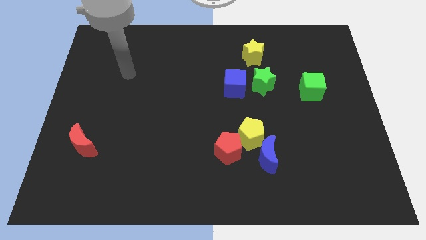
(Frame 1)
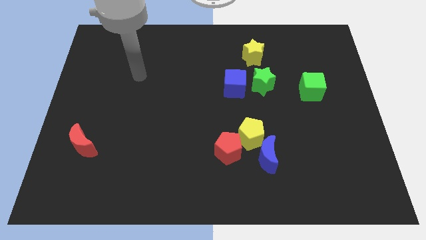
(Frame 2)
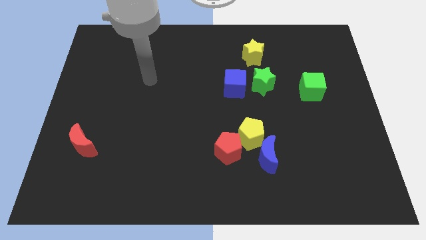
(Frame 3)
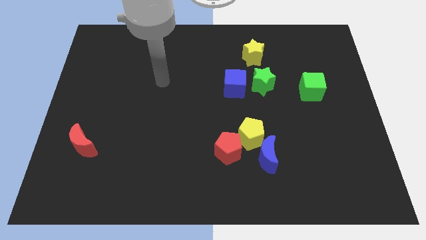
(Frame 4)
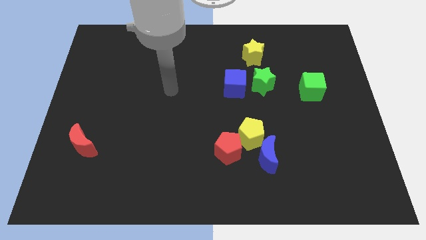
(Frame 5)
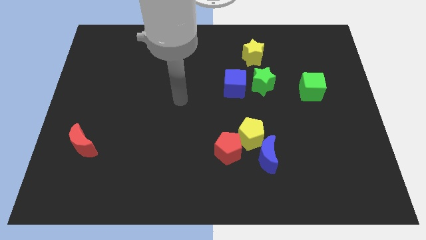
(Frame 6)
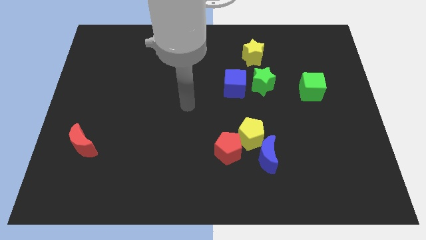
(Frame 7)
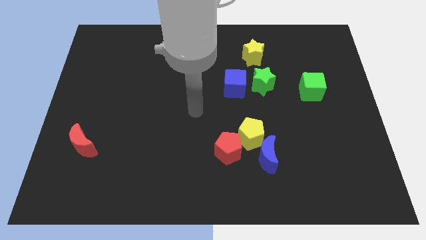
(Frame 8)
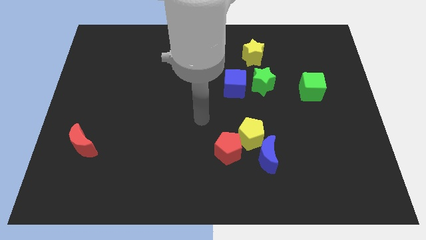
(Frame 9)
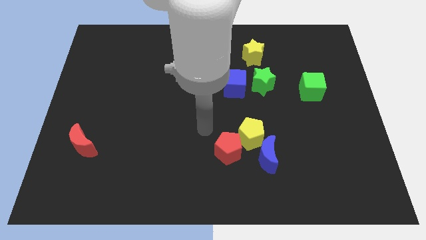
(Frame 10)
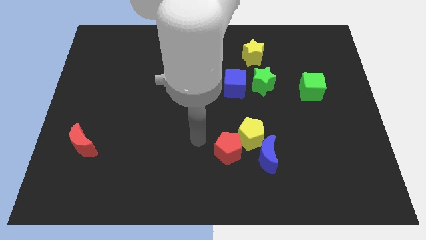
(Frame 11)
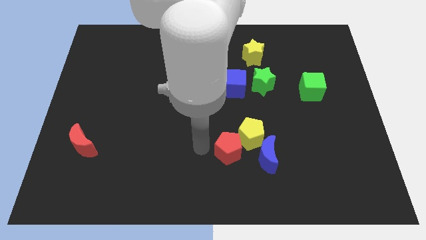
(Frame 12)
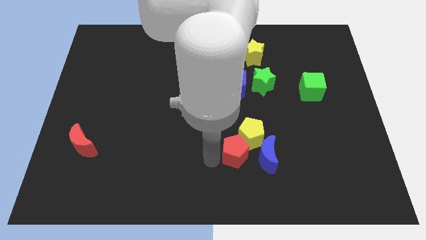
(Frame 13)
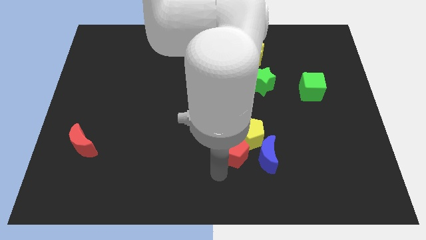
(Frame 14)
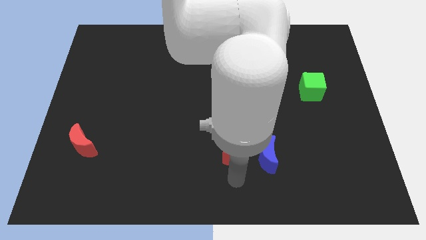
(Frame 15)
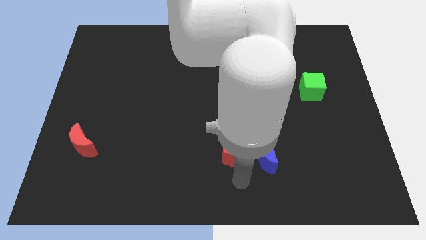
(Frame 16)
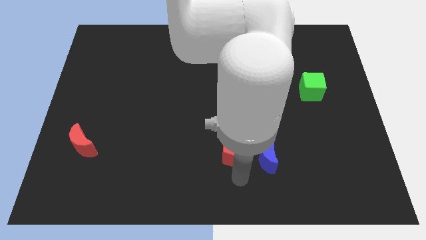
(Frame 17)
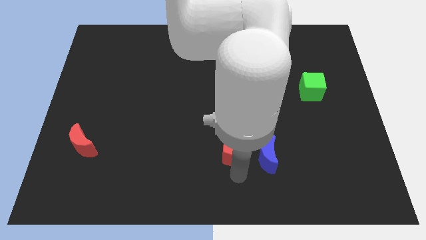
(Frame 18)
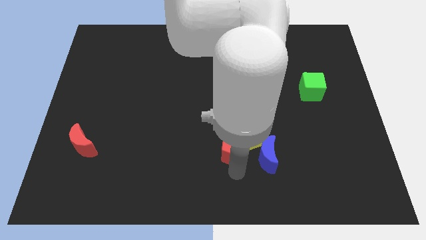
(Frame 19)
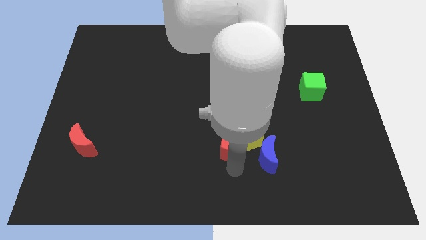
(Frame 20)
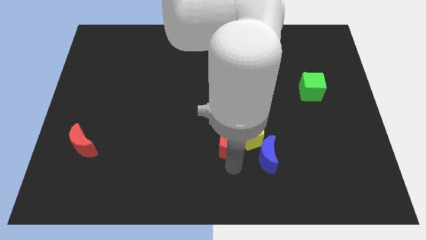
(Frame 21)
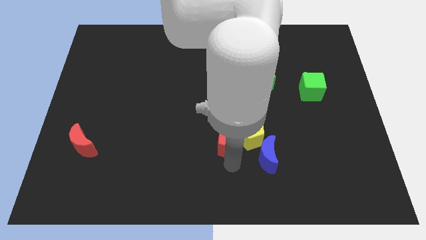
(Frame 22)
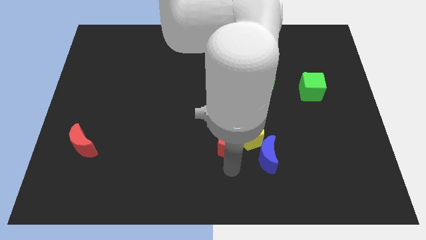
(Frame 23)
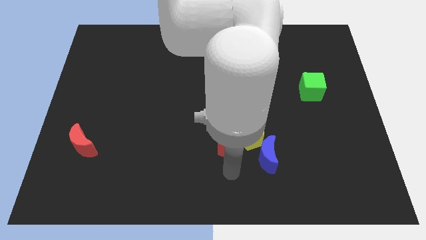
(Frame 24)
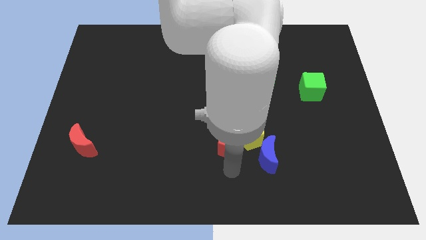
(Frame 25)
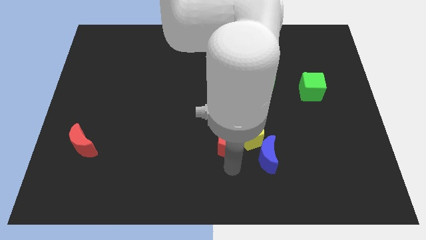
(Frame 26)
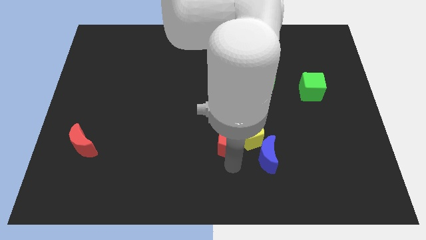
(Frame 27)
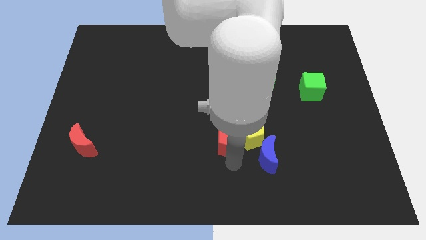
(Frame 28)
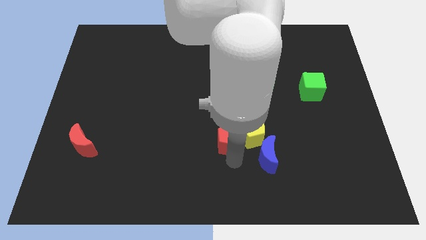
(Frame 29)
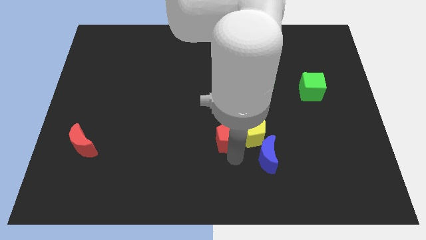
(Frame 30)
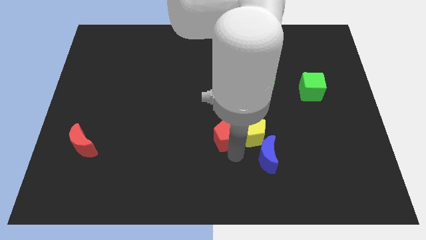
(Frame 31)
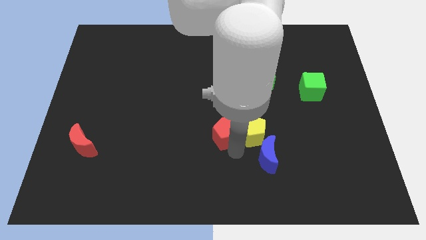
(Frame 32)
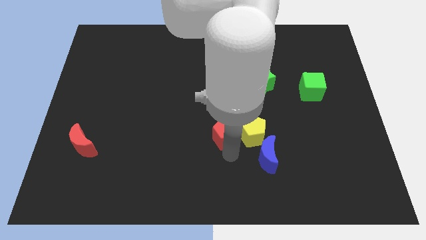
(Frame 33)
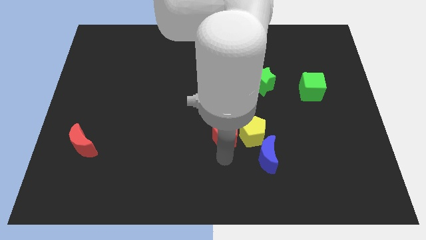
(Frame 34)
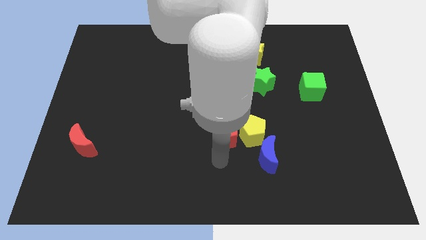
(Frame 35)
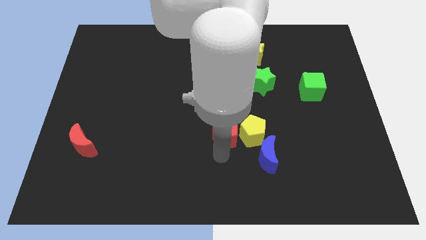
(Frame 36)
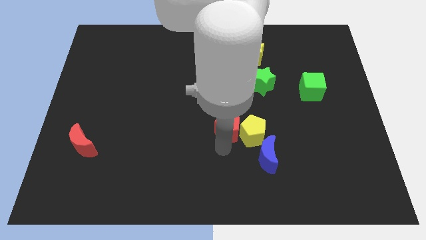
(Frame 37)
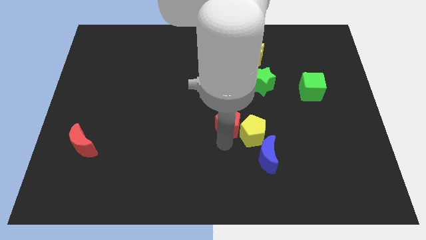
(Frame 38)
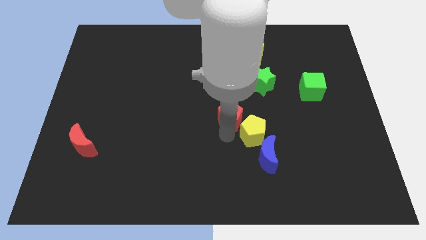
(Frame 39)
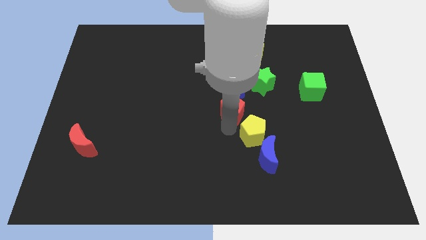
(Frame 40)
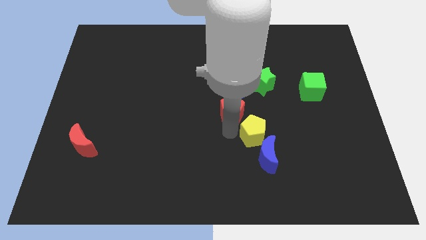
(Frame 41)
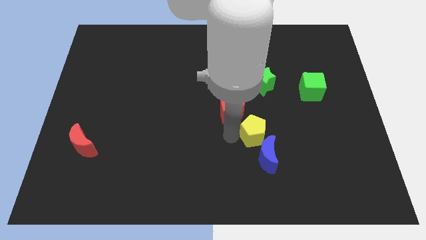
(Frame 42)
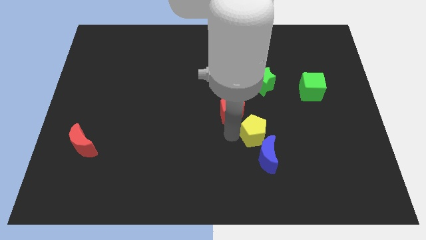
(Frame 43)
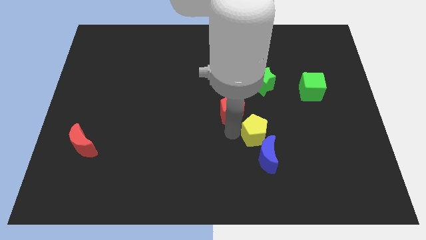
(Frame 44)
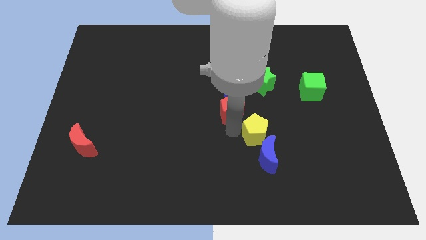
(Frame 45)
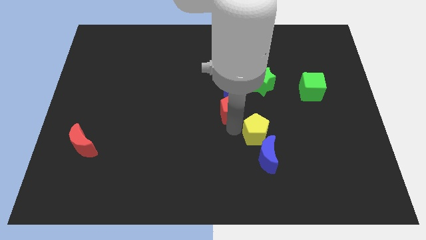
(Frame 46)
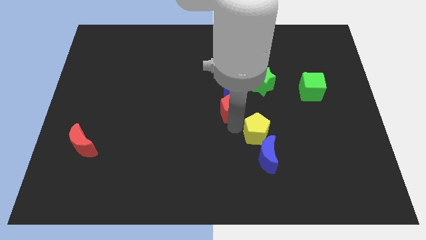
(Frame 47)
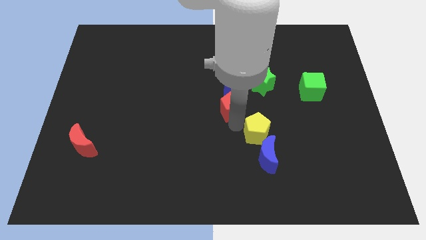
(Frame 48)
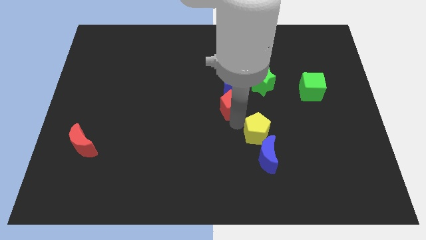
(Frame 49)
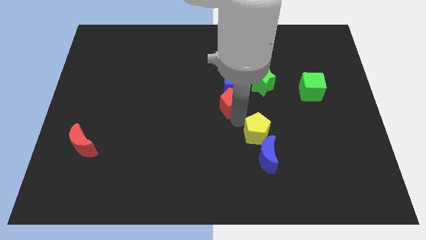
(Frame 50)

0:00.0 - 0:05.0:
push the red pentagon to the blue cube

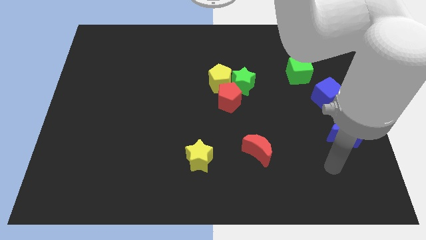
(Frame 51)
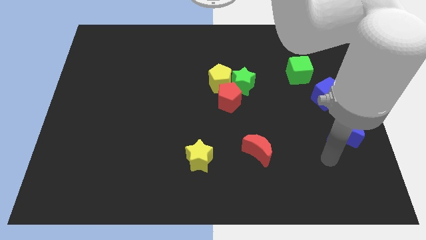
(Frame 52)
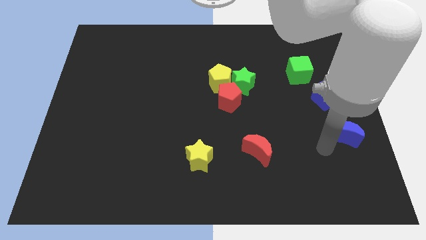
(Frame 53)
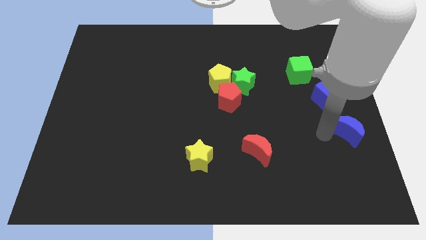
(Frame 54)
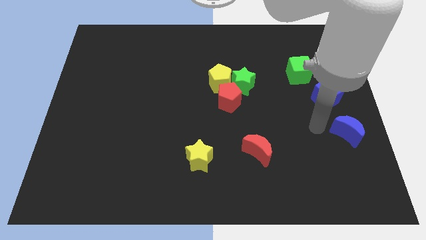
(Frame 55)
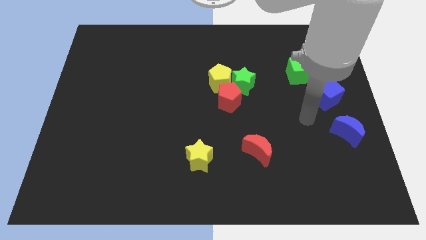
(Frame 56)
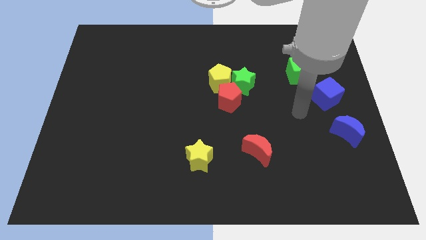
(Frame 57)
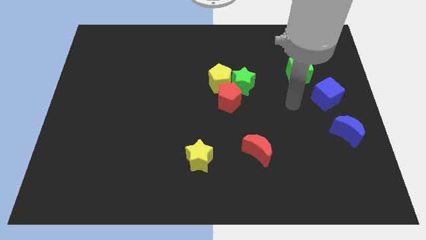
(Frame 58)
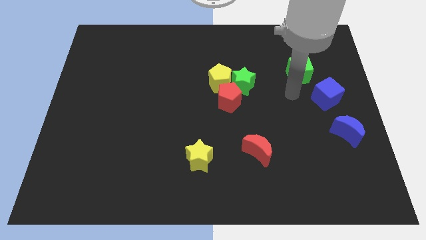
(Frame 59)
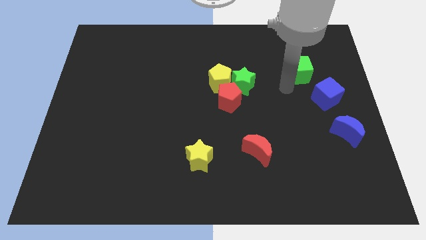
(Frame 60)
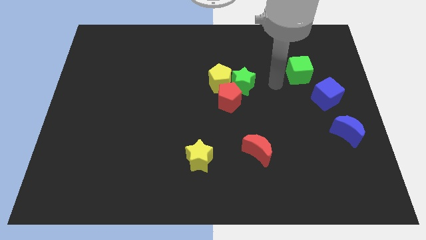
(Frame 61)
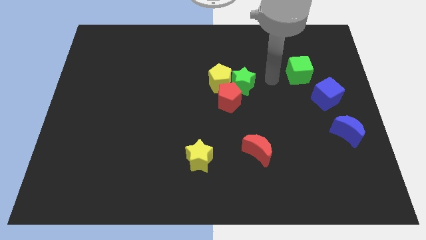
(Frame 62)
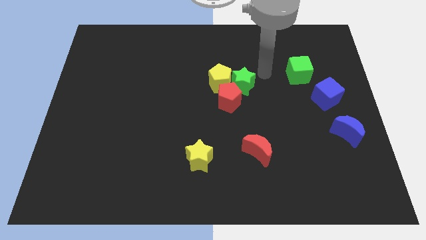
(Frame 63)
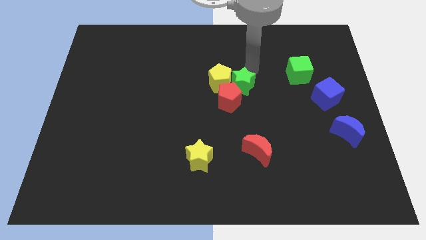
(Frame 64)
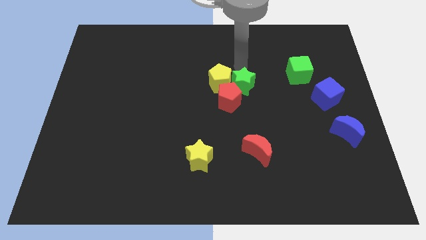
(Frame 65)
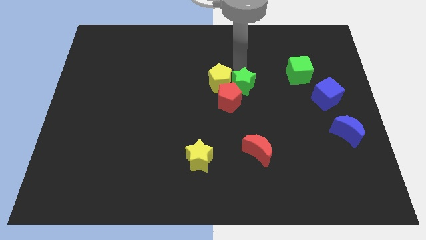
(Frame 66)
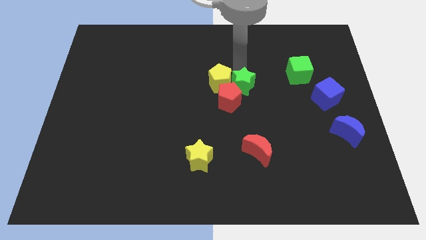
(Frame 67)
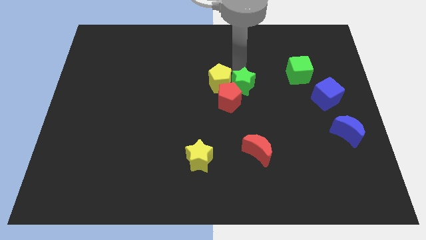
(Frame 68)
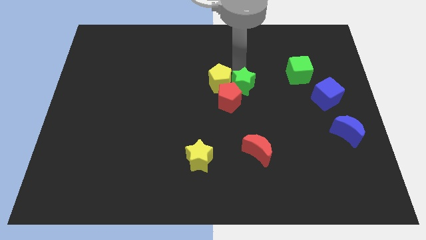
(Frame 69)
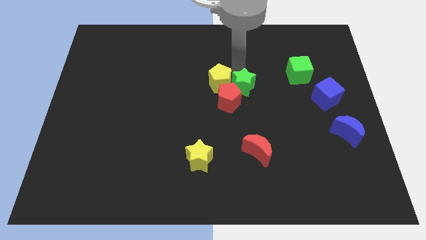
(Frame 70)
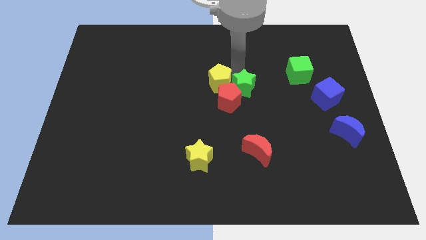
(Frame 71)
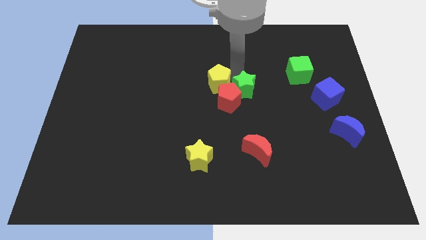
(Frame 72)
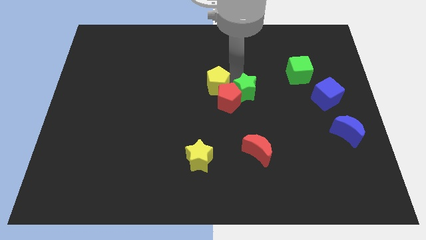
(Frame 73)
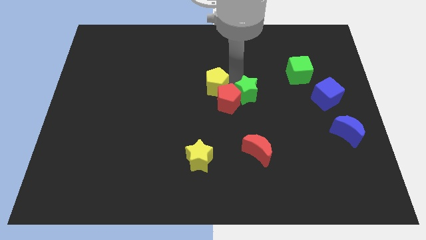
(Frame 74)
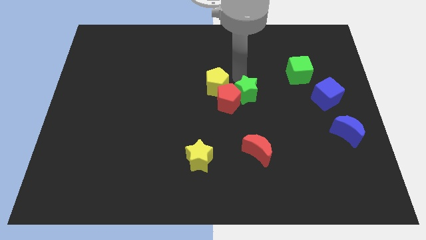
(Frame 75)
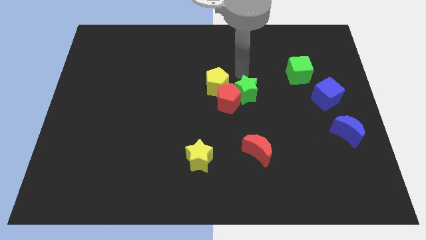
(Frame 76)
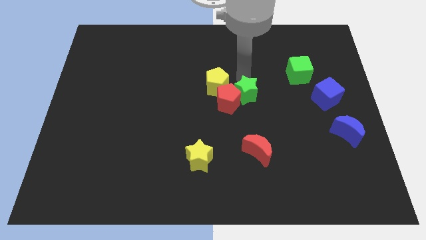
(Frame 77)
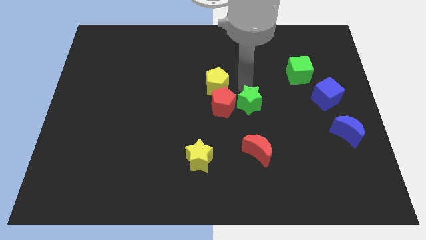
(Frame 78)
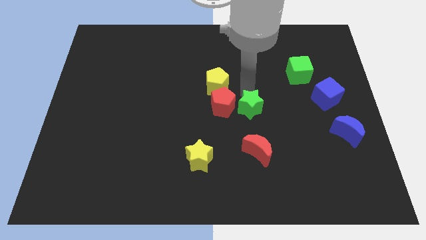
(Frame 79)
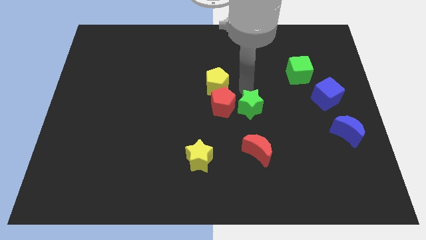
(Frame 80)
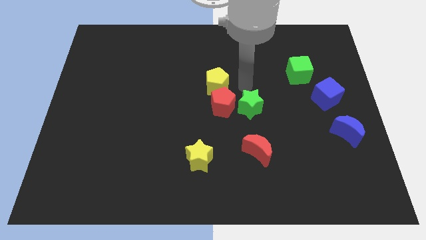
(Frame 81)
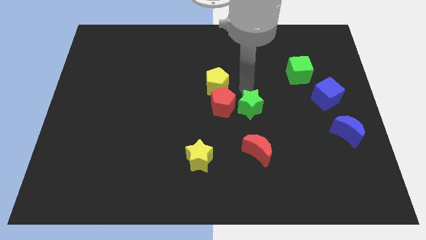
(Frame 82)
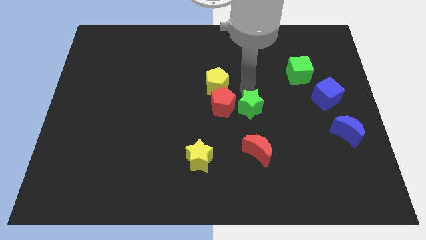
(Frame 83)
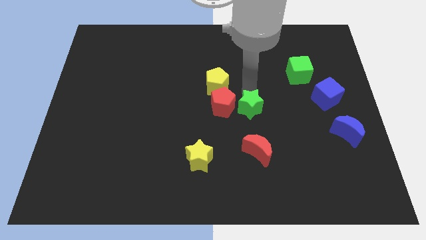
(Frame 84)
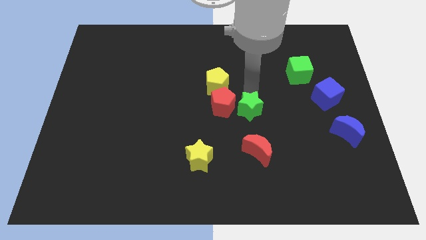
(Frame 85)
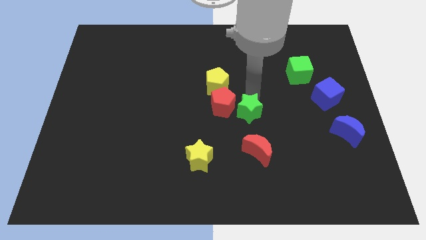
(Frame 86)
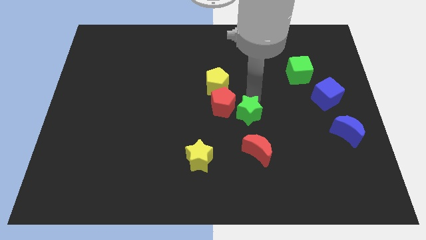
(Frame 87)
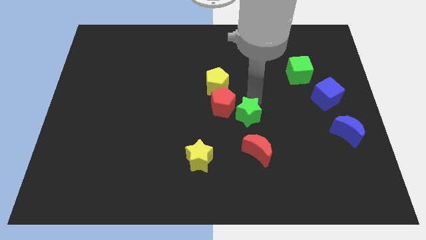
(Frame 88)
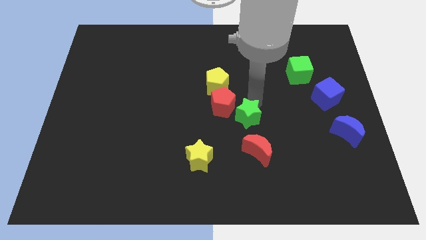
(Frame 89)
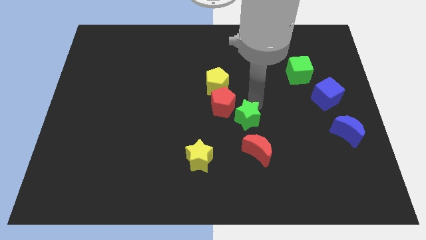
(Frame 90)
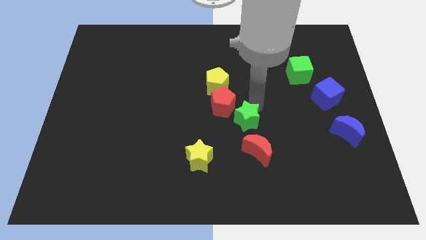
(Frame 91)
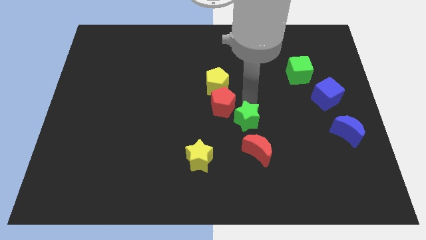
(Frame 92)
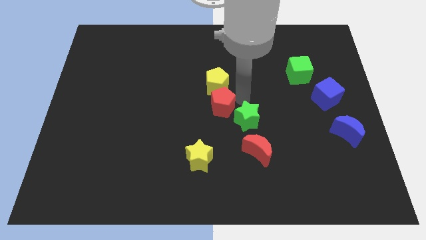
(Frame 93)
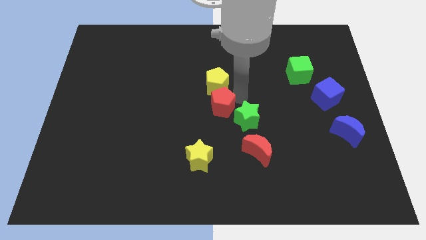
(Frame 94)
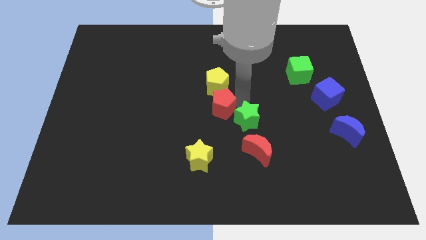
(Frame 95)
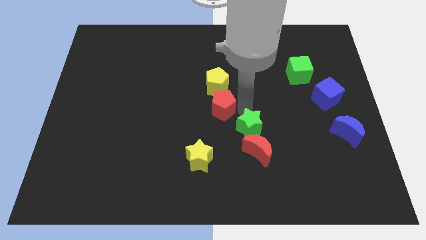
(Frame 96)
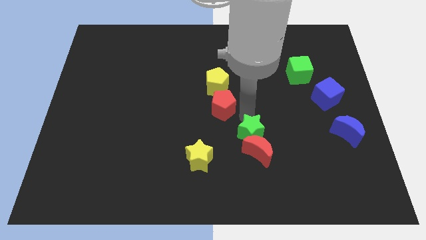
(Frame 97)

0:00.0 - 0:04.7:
put the green star towards the red moon
